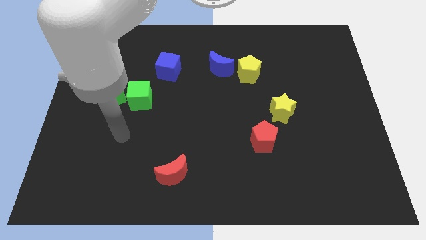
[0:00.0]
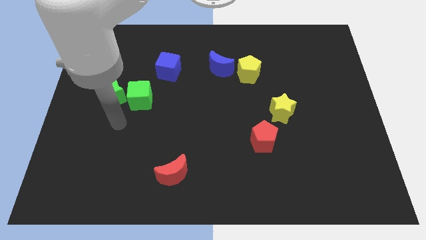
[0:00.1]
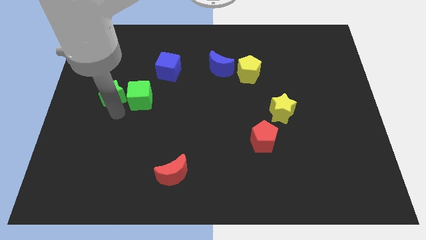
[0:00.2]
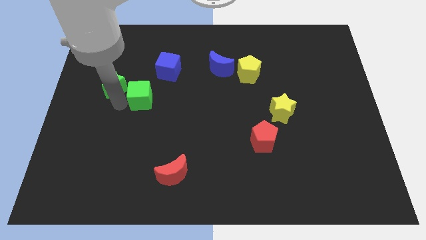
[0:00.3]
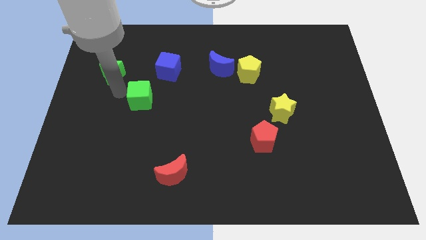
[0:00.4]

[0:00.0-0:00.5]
pull the green cube apart from the green star

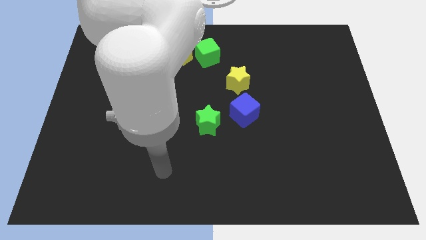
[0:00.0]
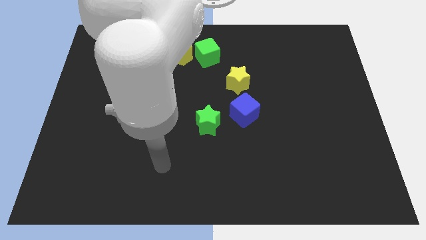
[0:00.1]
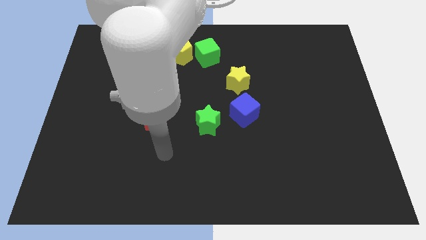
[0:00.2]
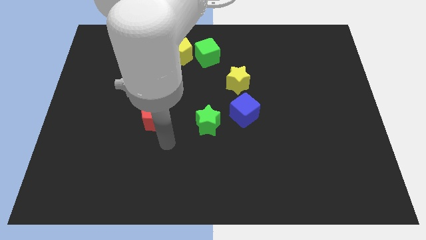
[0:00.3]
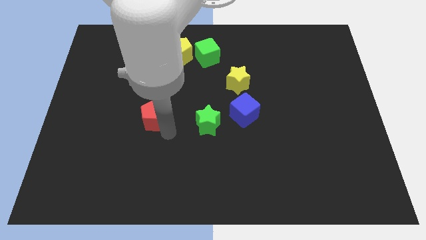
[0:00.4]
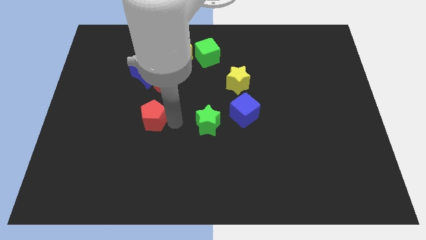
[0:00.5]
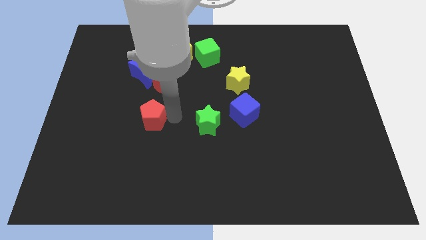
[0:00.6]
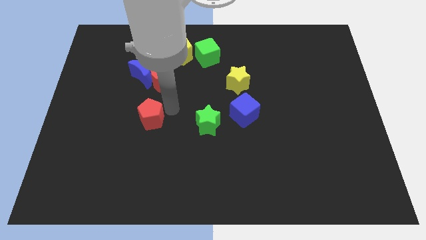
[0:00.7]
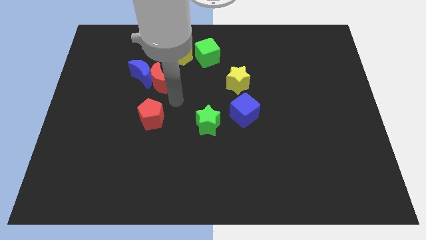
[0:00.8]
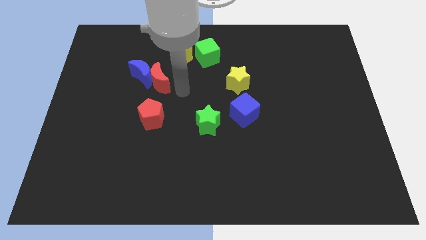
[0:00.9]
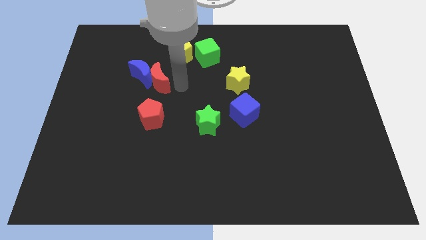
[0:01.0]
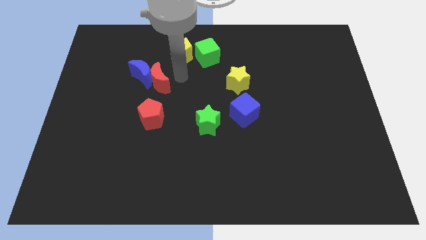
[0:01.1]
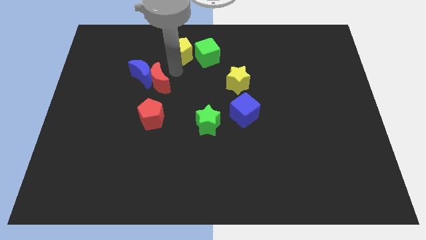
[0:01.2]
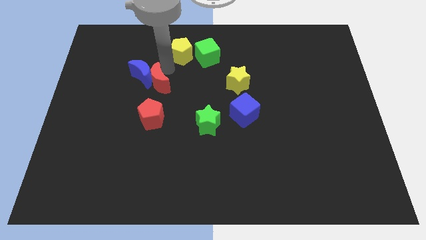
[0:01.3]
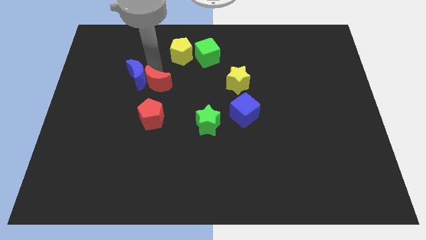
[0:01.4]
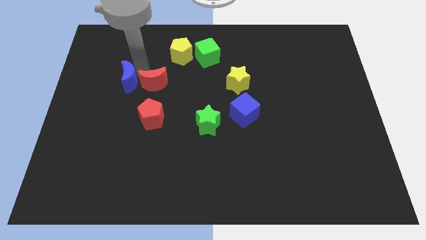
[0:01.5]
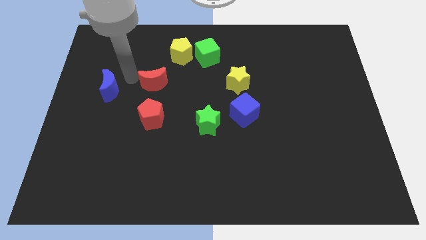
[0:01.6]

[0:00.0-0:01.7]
pull the red moon apart from the blue moon

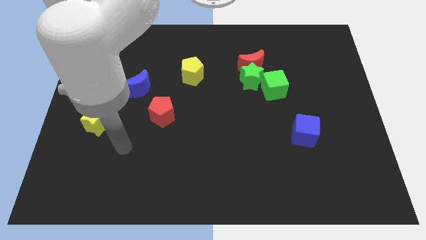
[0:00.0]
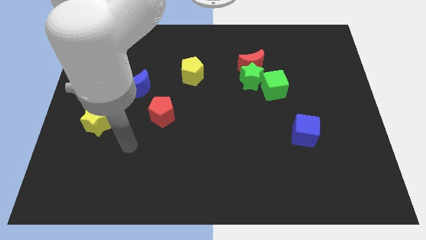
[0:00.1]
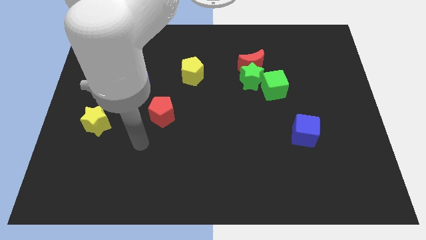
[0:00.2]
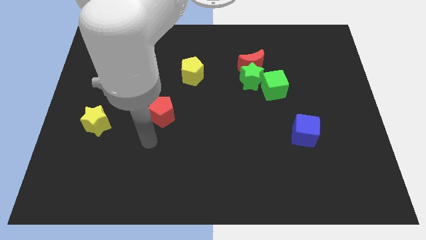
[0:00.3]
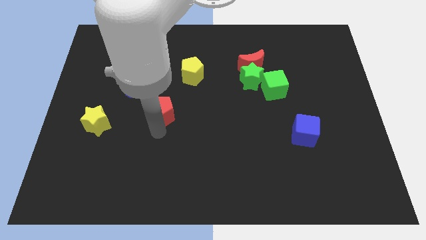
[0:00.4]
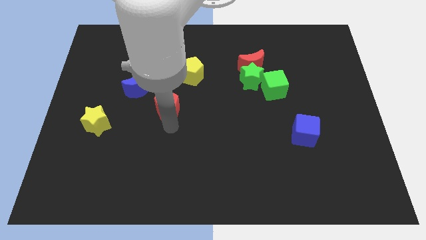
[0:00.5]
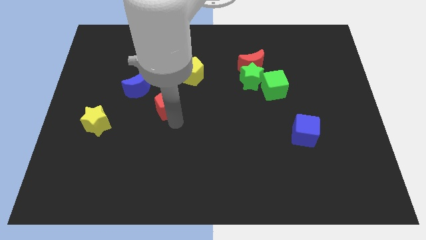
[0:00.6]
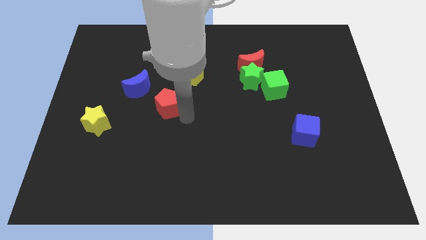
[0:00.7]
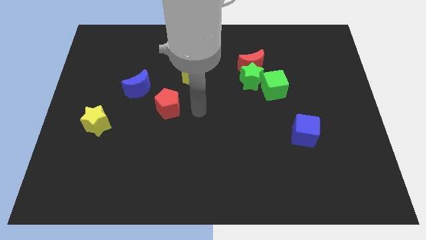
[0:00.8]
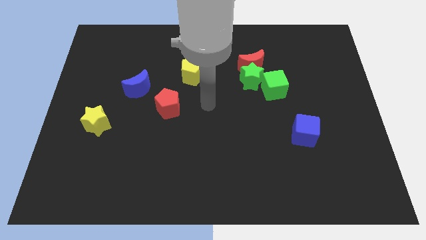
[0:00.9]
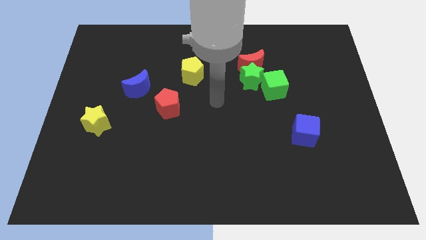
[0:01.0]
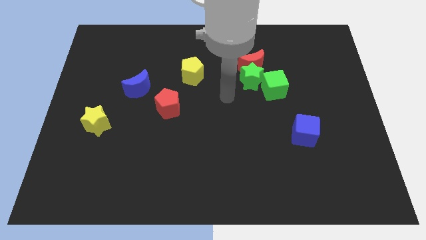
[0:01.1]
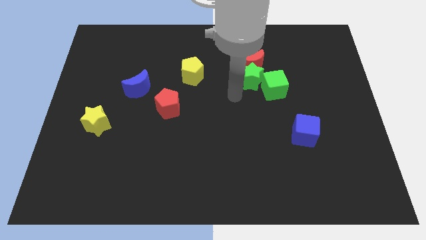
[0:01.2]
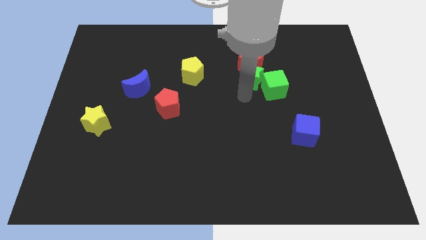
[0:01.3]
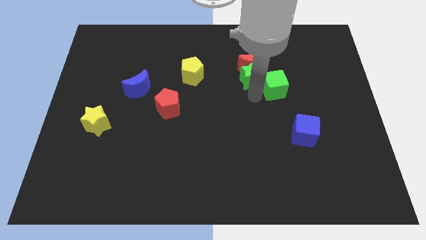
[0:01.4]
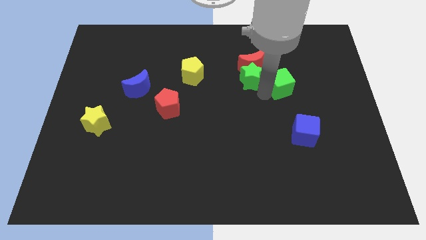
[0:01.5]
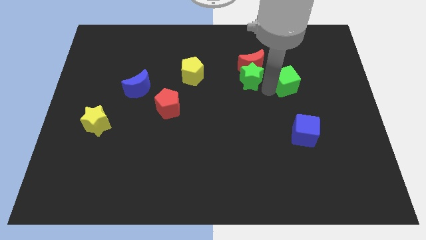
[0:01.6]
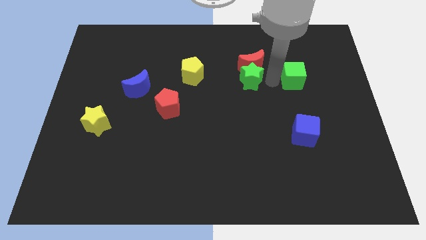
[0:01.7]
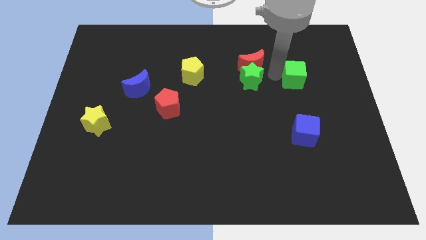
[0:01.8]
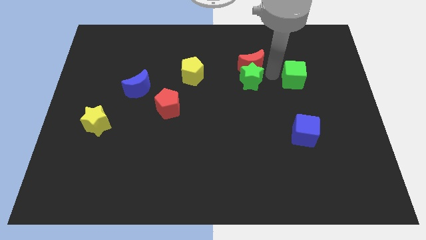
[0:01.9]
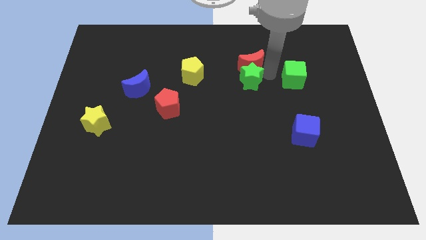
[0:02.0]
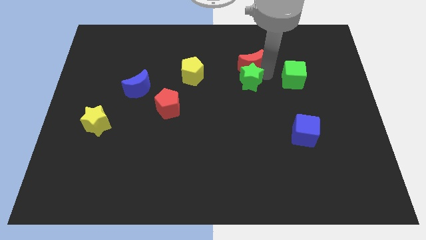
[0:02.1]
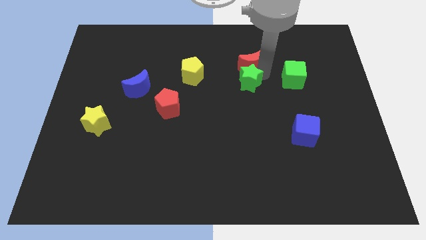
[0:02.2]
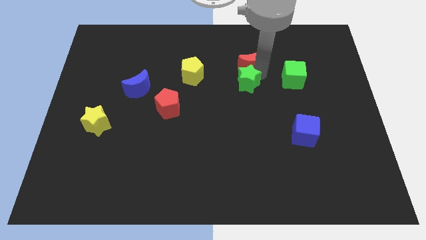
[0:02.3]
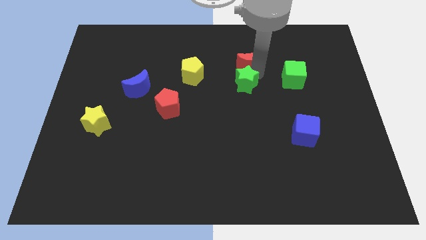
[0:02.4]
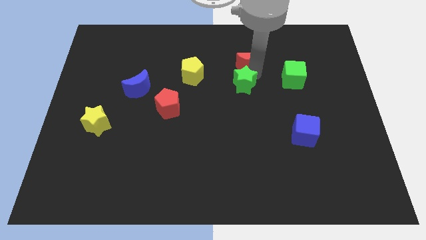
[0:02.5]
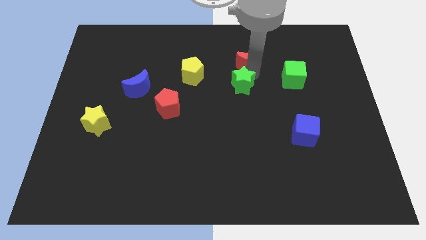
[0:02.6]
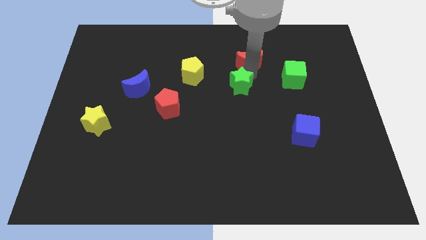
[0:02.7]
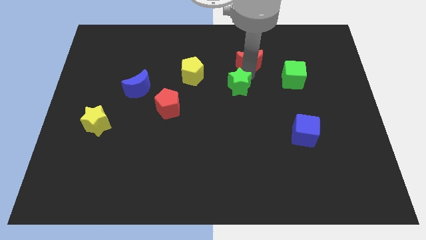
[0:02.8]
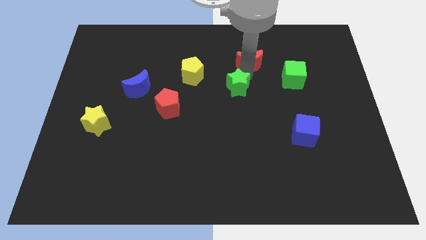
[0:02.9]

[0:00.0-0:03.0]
pull the green star apart from the red moon and green cube

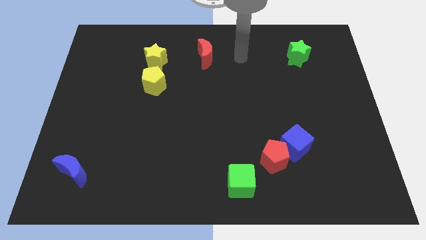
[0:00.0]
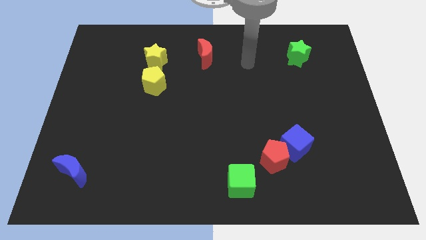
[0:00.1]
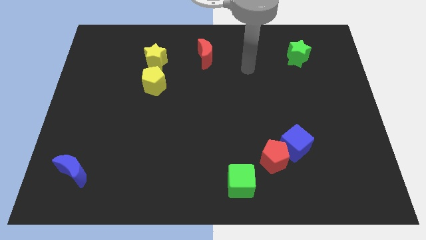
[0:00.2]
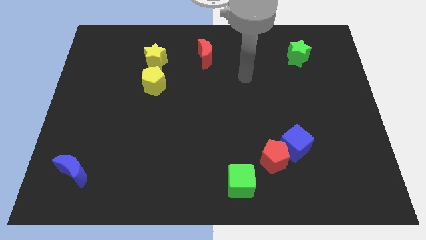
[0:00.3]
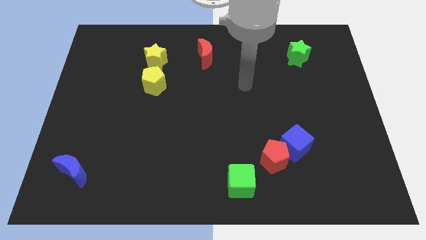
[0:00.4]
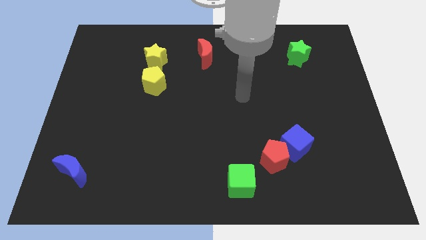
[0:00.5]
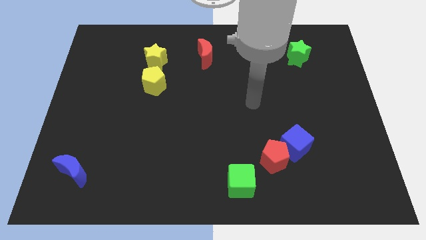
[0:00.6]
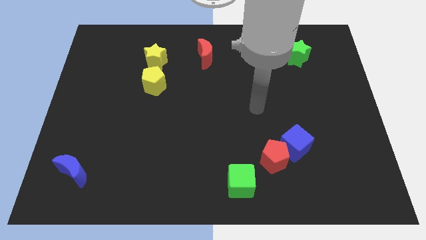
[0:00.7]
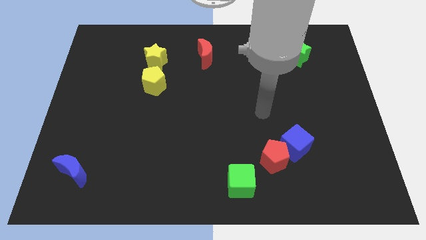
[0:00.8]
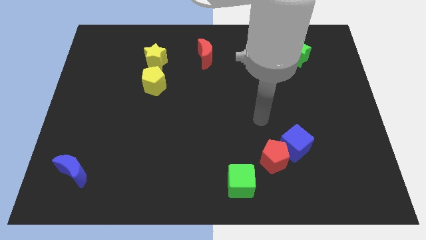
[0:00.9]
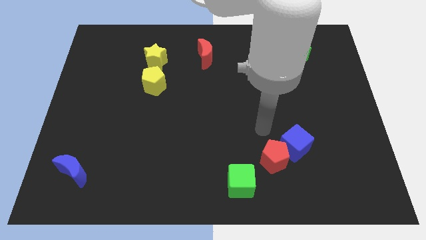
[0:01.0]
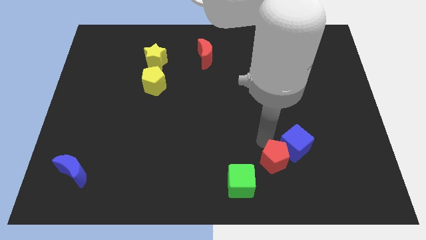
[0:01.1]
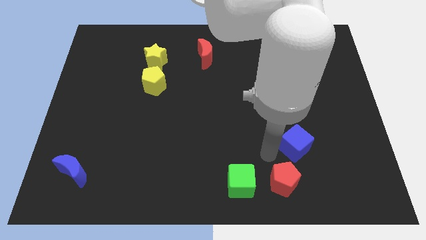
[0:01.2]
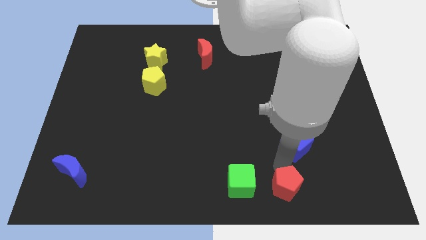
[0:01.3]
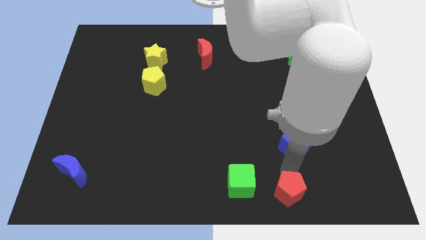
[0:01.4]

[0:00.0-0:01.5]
separate the blue cube from the red pentagon

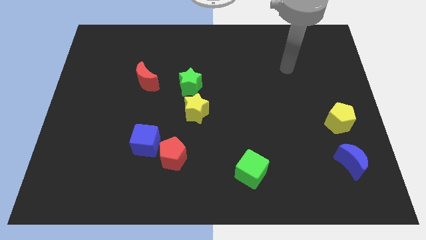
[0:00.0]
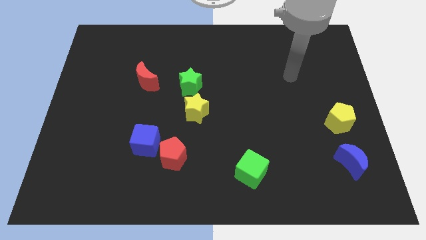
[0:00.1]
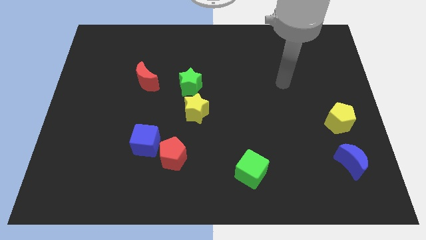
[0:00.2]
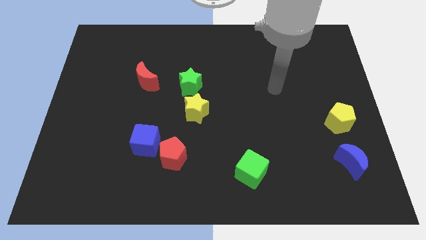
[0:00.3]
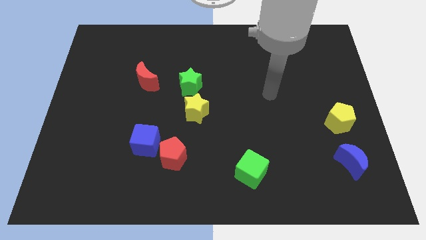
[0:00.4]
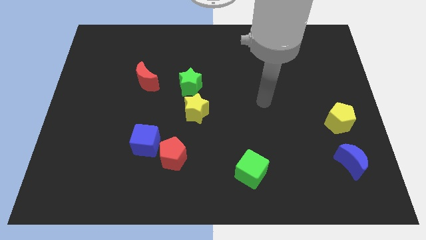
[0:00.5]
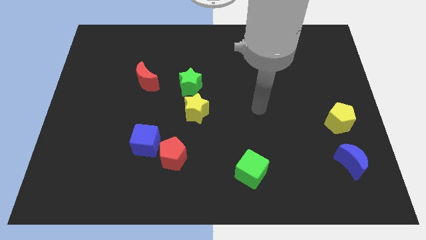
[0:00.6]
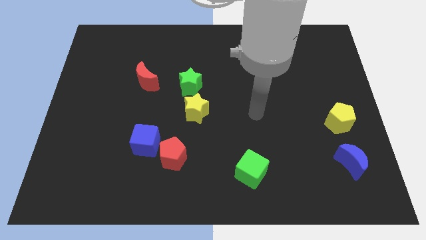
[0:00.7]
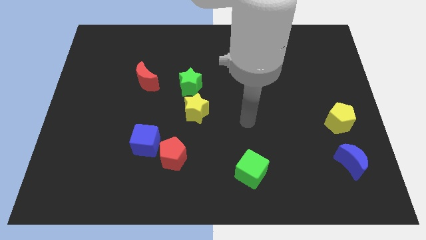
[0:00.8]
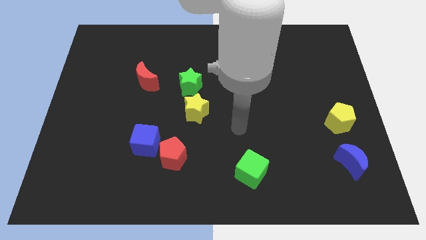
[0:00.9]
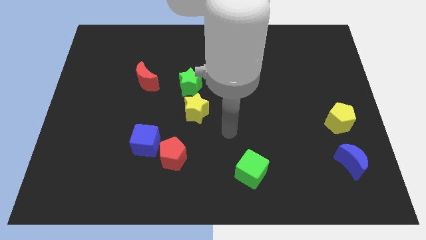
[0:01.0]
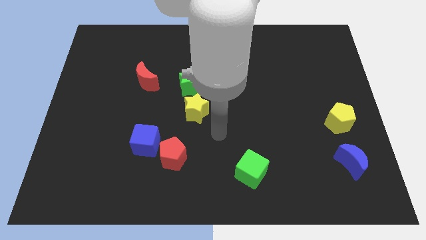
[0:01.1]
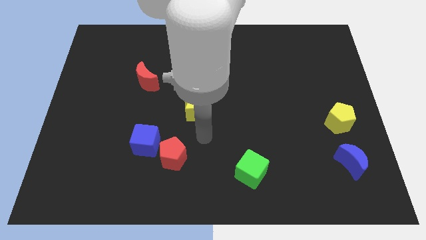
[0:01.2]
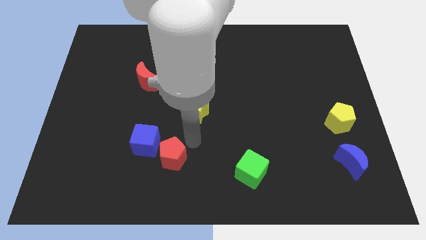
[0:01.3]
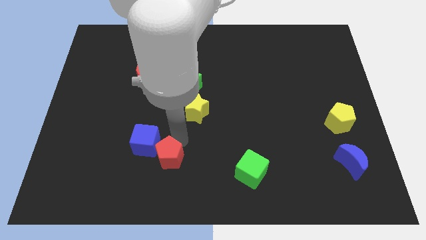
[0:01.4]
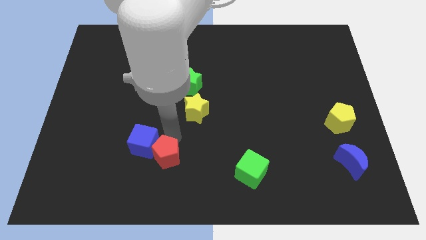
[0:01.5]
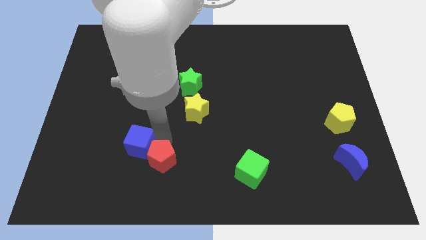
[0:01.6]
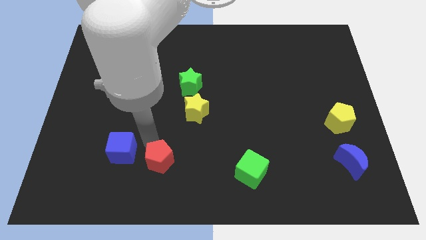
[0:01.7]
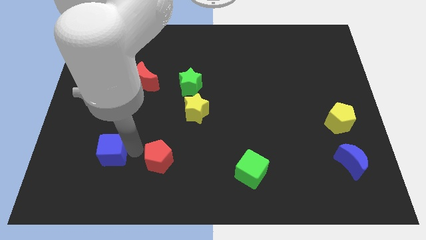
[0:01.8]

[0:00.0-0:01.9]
move the red pentagon away from the blue cube

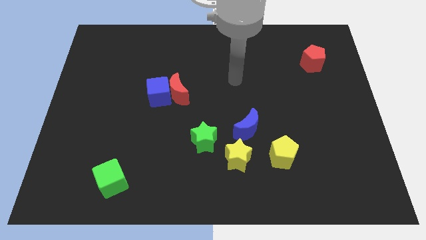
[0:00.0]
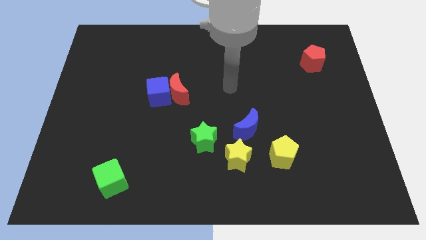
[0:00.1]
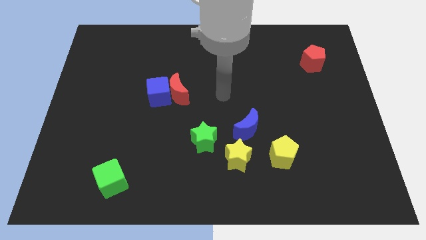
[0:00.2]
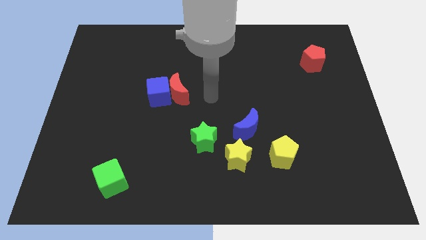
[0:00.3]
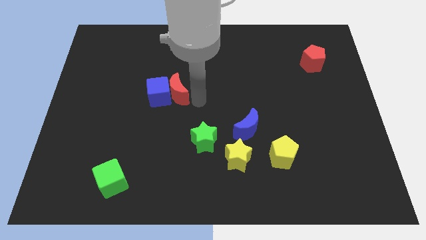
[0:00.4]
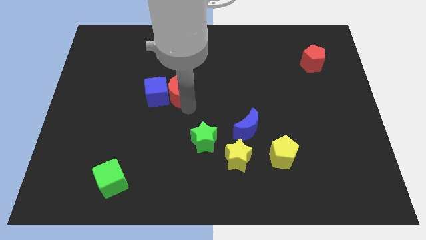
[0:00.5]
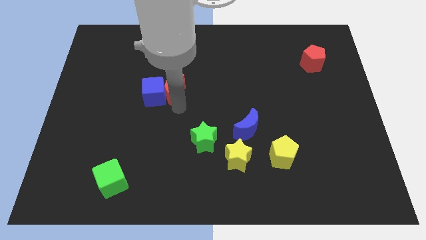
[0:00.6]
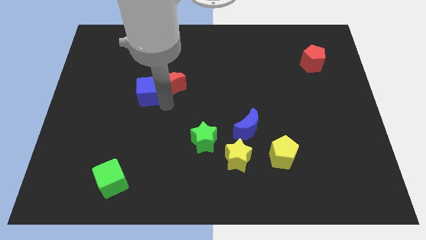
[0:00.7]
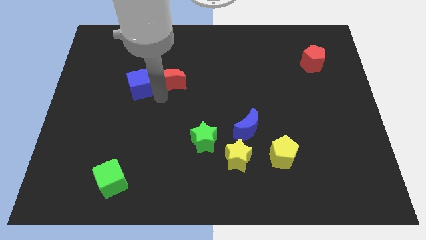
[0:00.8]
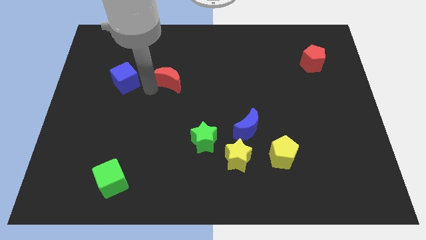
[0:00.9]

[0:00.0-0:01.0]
move the red moon away from the blue cube
